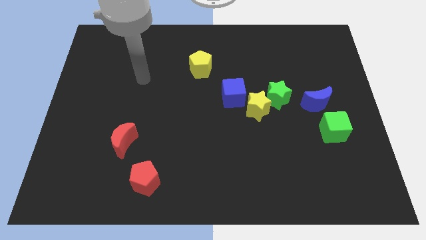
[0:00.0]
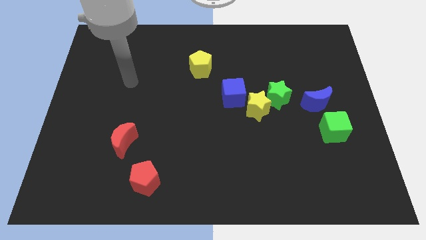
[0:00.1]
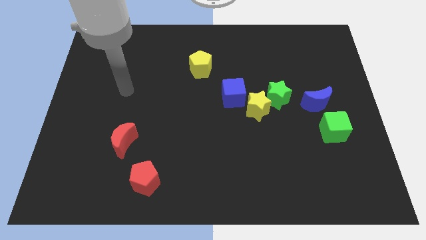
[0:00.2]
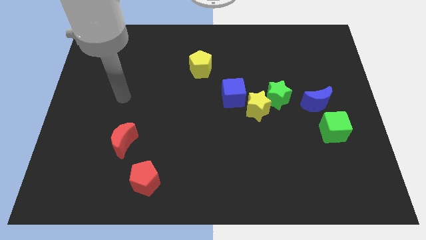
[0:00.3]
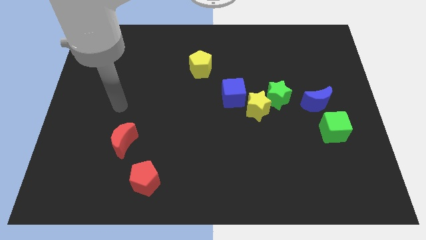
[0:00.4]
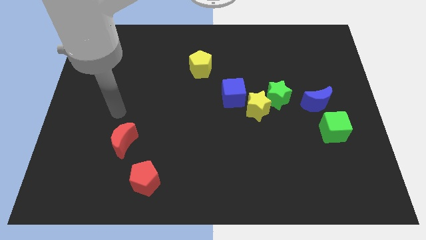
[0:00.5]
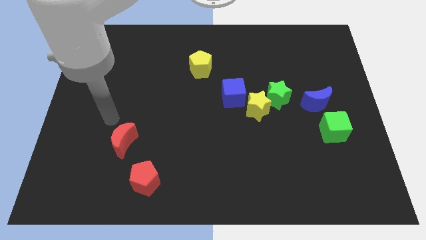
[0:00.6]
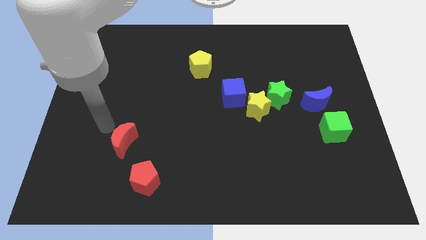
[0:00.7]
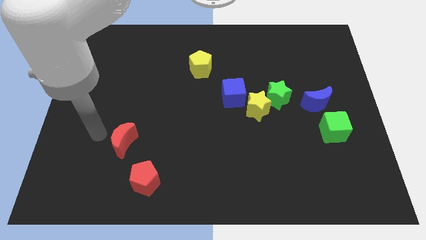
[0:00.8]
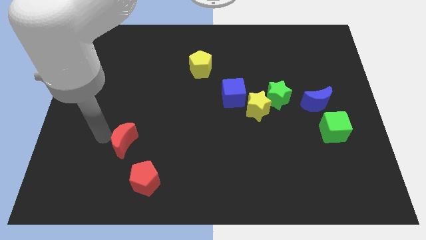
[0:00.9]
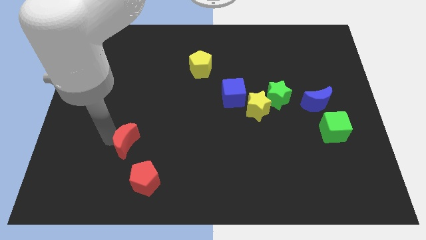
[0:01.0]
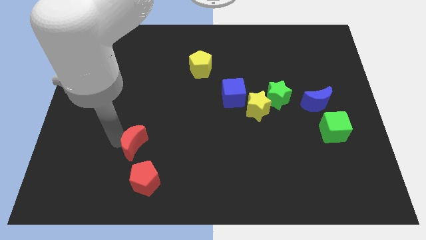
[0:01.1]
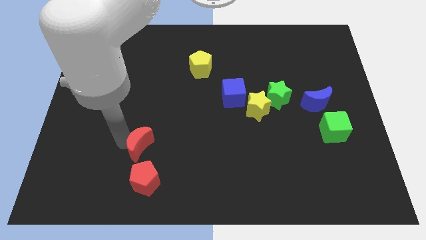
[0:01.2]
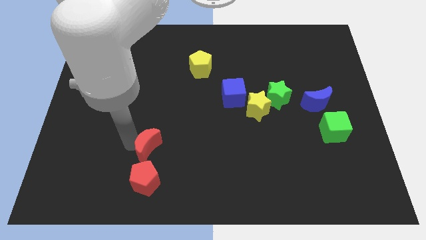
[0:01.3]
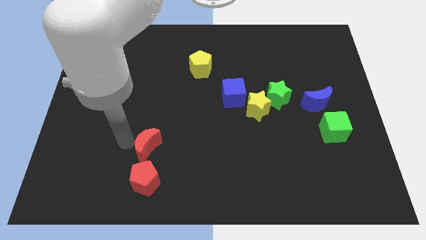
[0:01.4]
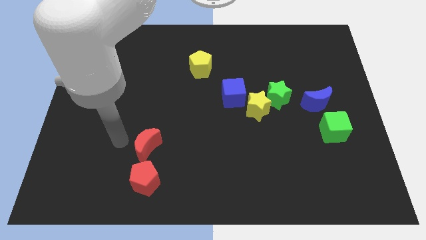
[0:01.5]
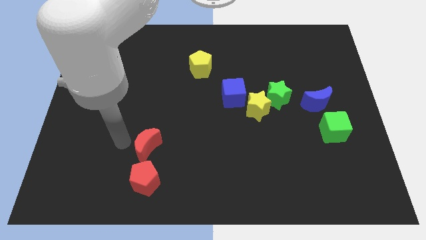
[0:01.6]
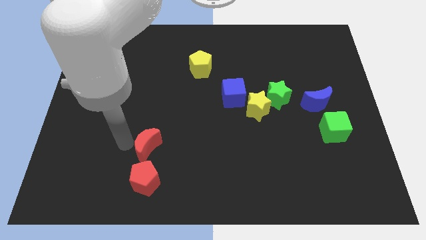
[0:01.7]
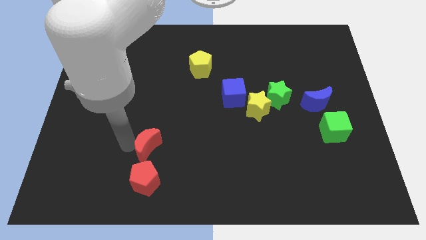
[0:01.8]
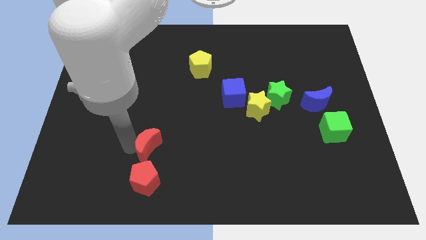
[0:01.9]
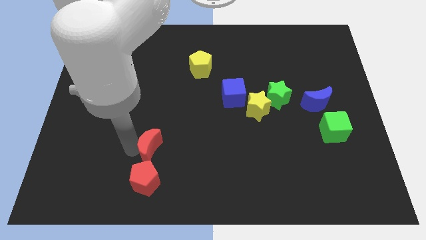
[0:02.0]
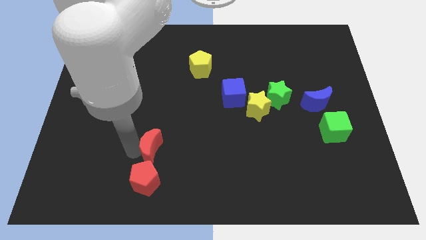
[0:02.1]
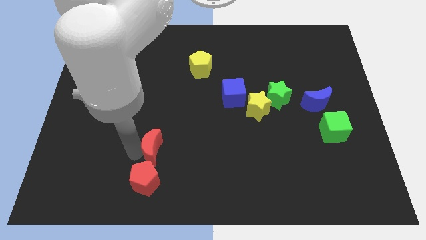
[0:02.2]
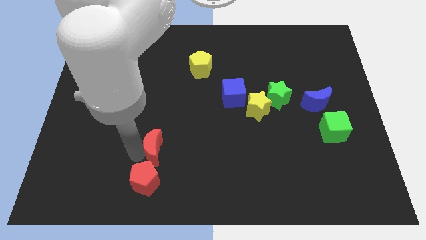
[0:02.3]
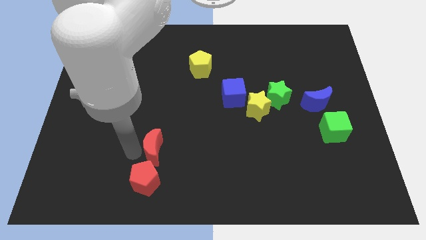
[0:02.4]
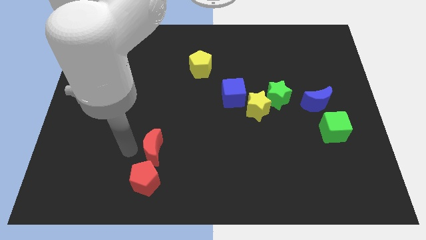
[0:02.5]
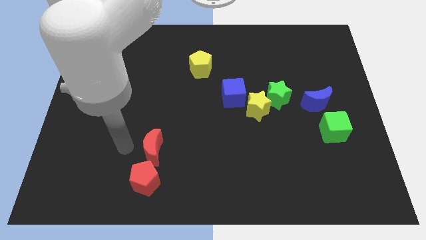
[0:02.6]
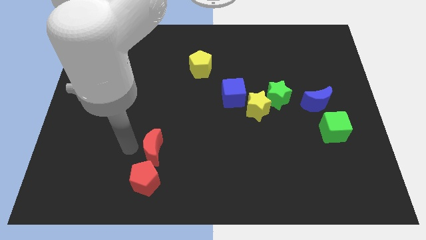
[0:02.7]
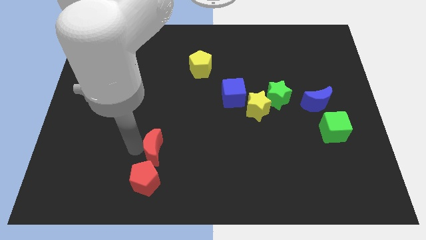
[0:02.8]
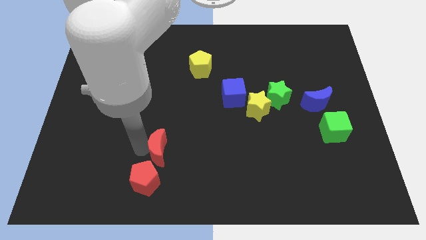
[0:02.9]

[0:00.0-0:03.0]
slightly push the red moon to the right

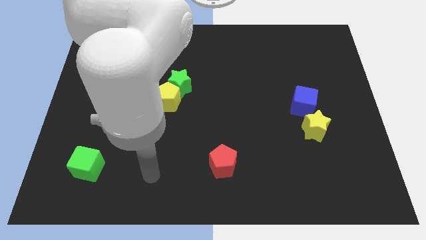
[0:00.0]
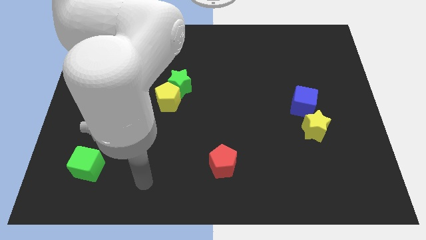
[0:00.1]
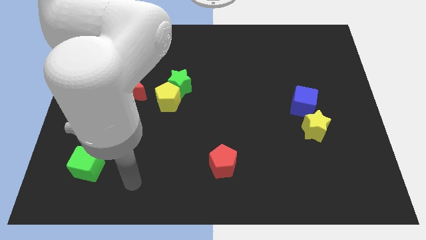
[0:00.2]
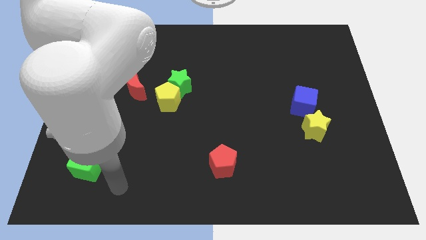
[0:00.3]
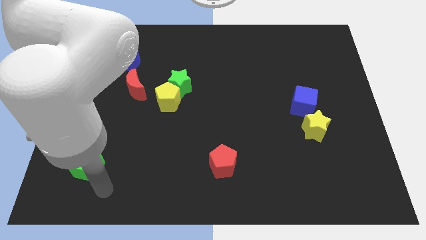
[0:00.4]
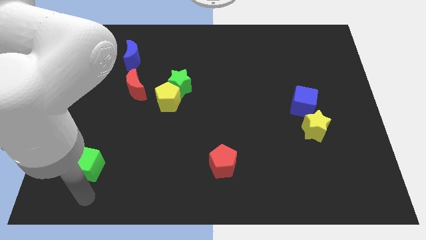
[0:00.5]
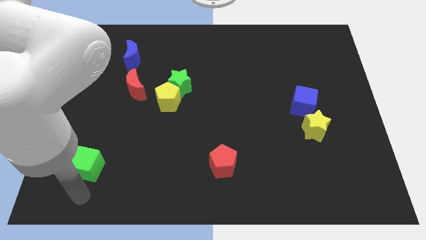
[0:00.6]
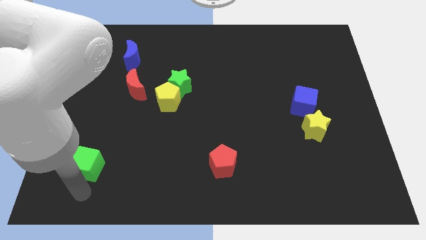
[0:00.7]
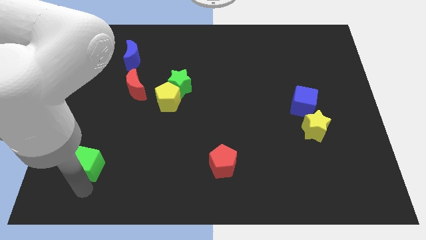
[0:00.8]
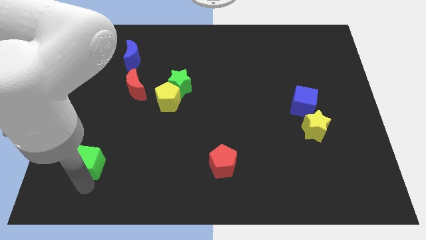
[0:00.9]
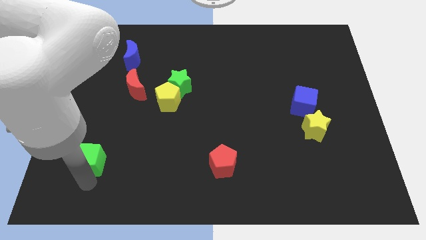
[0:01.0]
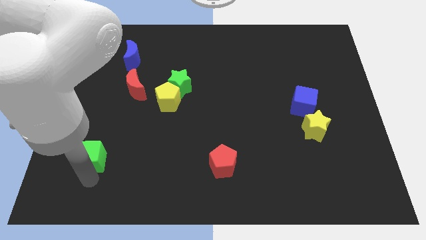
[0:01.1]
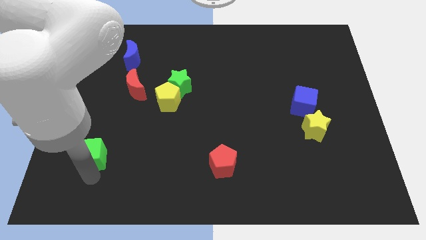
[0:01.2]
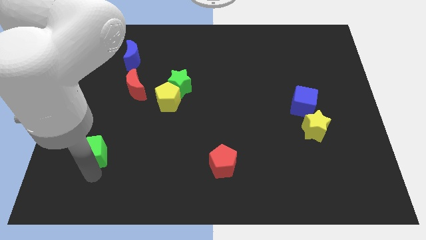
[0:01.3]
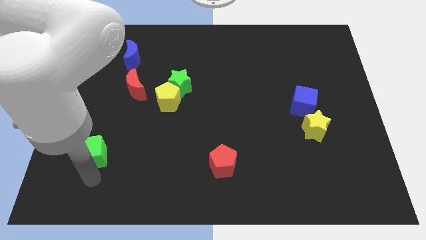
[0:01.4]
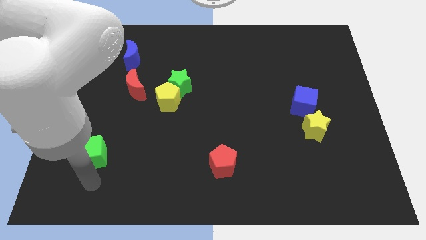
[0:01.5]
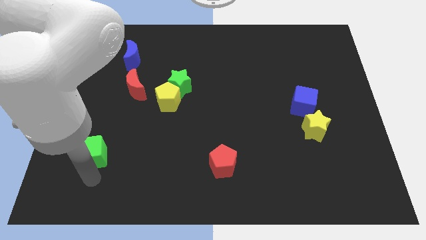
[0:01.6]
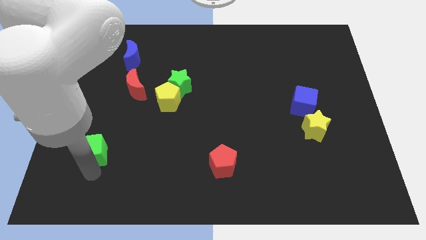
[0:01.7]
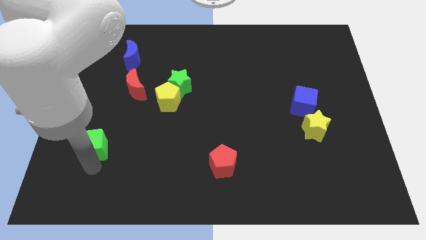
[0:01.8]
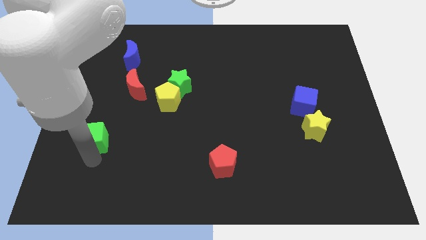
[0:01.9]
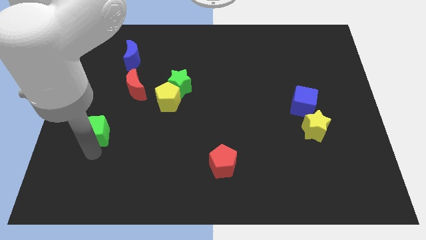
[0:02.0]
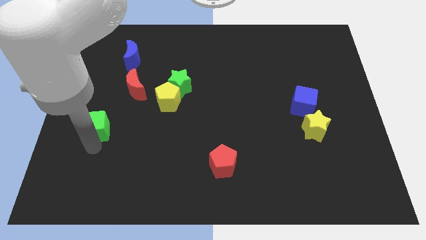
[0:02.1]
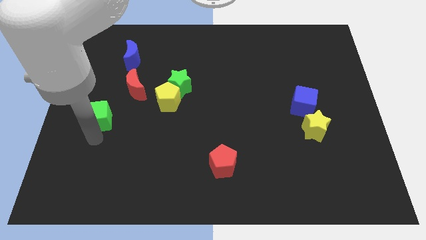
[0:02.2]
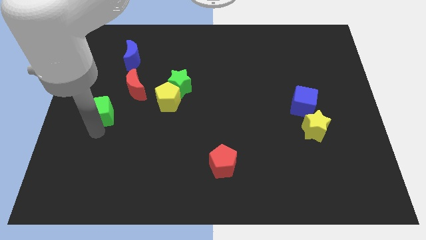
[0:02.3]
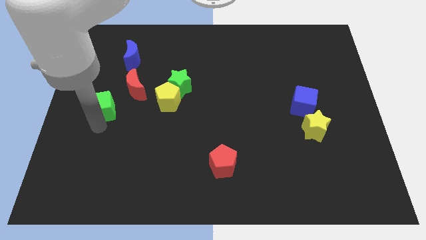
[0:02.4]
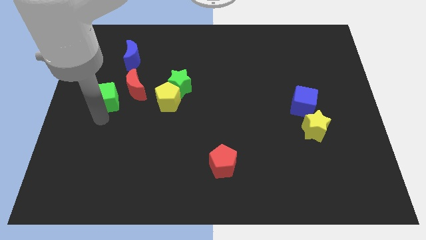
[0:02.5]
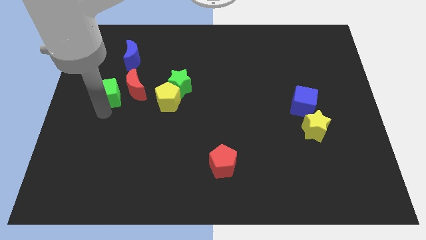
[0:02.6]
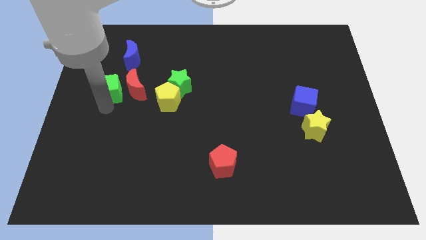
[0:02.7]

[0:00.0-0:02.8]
move the green cube upwards

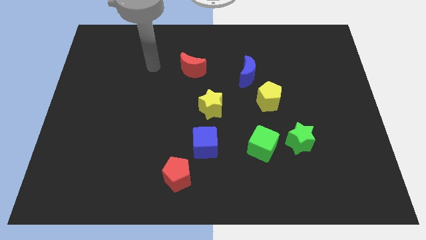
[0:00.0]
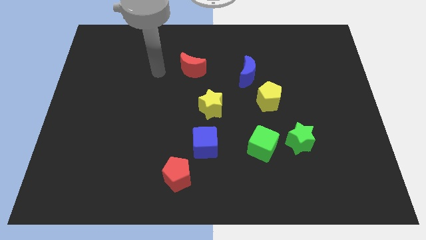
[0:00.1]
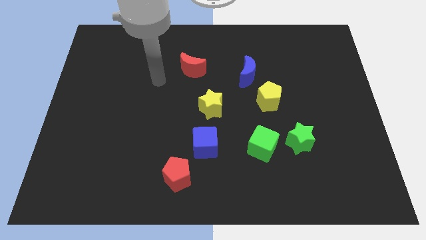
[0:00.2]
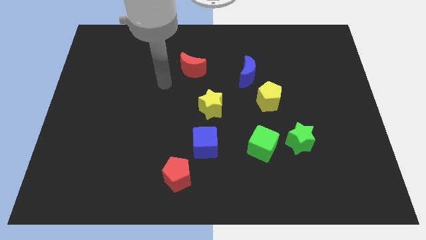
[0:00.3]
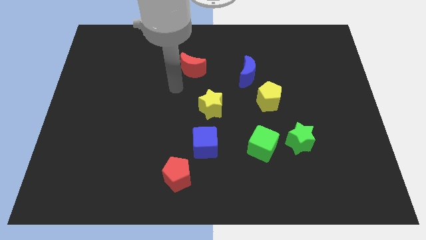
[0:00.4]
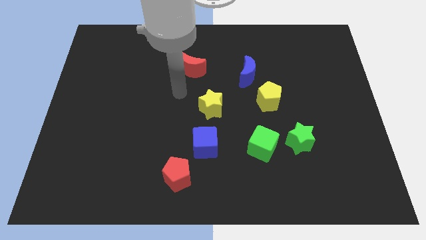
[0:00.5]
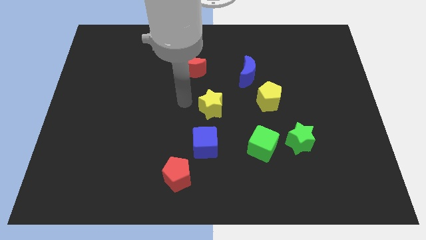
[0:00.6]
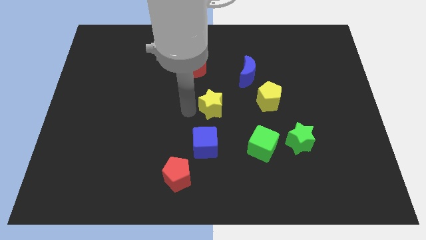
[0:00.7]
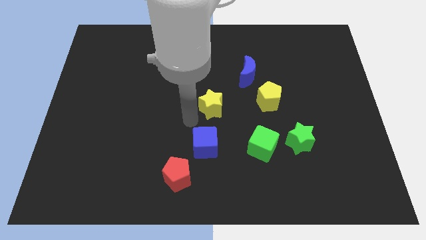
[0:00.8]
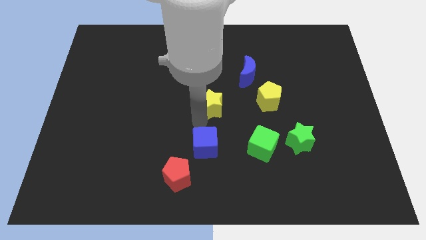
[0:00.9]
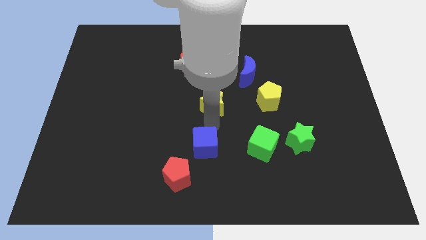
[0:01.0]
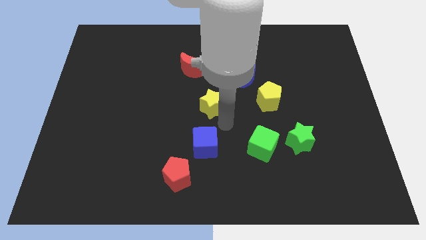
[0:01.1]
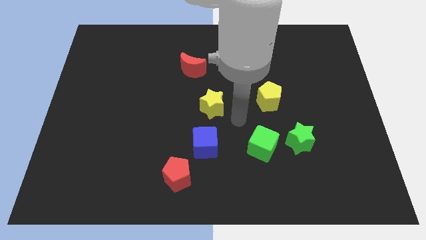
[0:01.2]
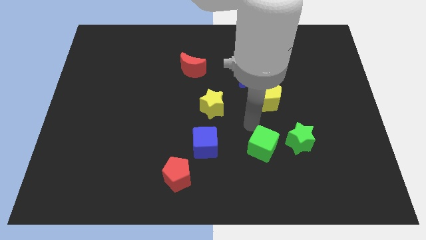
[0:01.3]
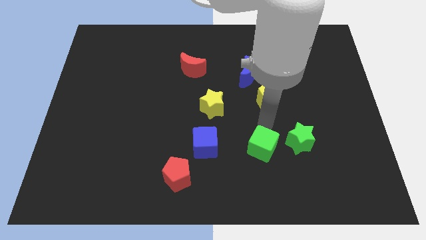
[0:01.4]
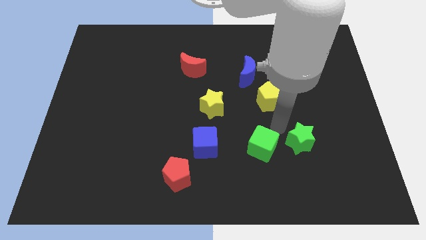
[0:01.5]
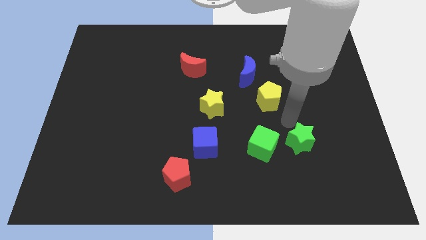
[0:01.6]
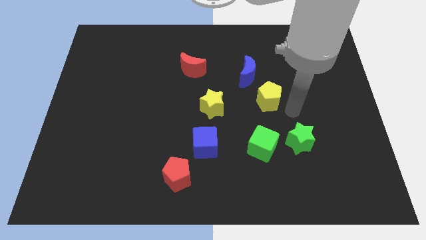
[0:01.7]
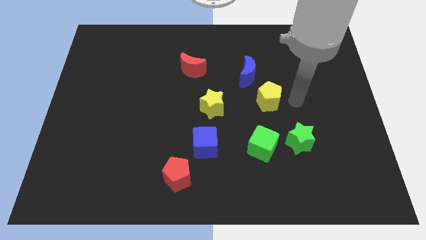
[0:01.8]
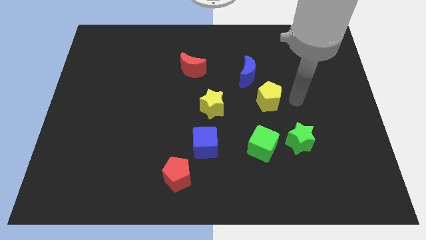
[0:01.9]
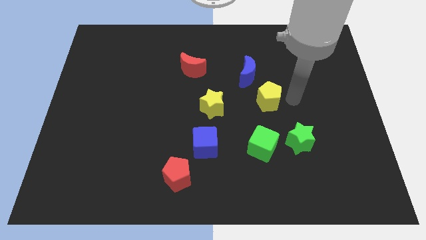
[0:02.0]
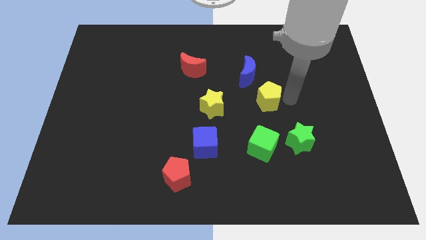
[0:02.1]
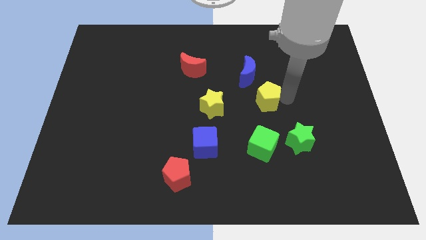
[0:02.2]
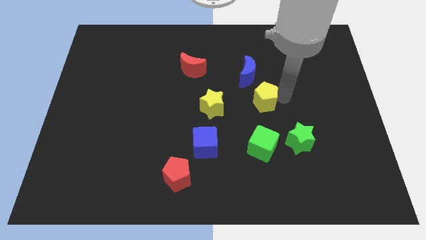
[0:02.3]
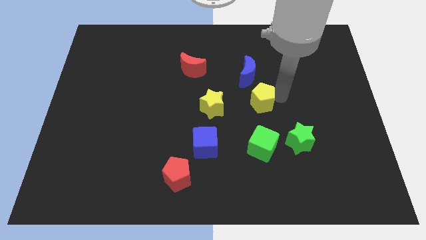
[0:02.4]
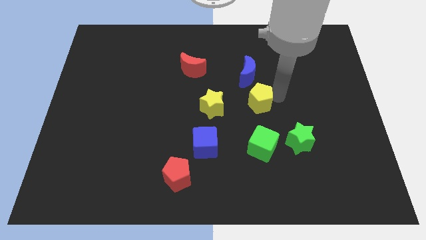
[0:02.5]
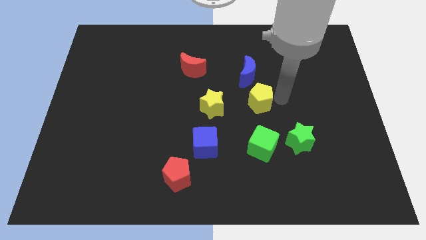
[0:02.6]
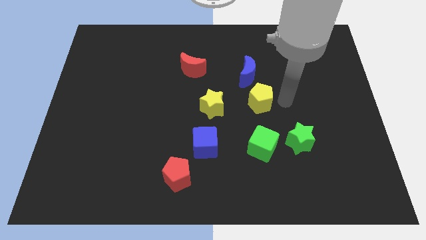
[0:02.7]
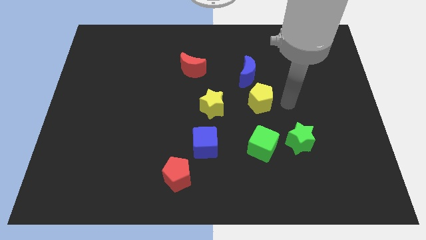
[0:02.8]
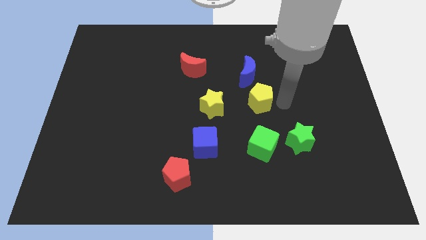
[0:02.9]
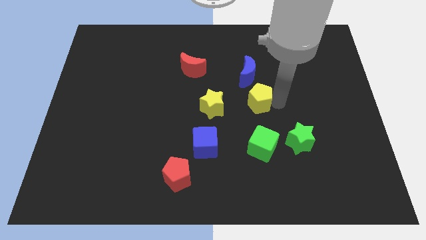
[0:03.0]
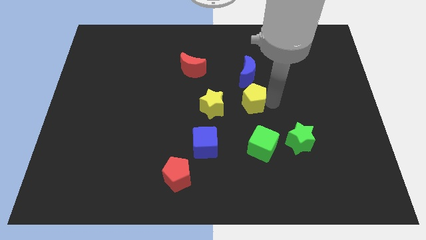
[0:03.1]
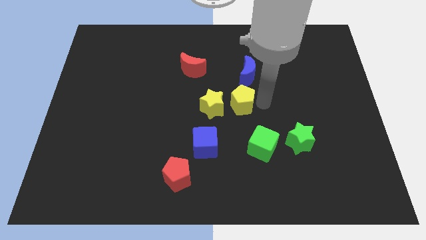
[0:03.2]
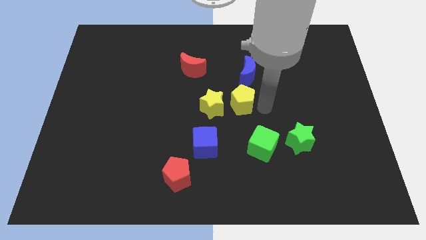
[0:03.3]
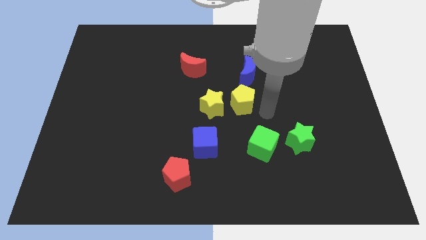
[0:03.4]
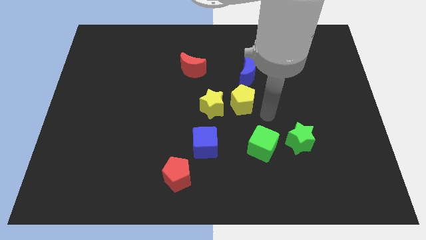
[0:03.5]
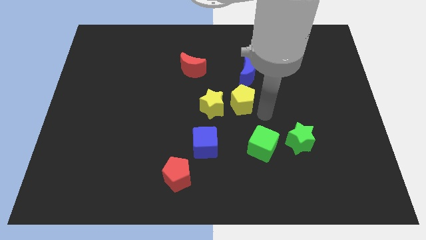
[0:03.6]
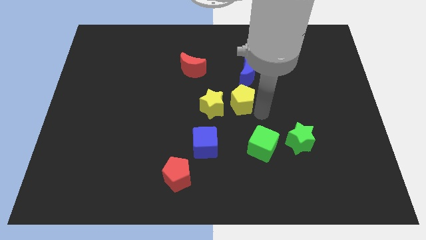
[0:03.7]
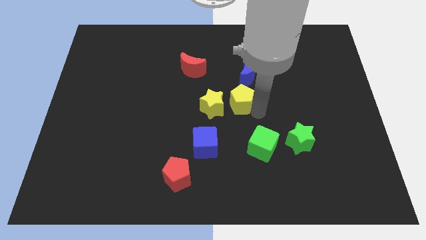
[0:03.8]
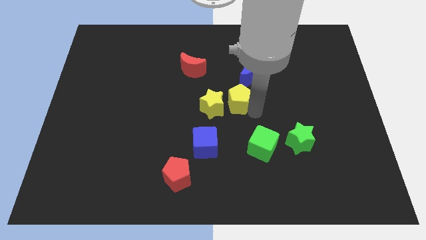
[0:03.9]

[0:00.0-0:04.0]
slide the yellow pentagon to the left slightly
